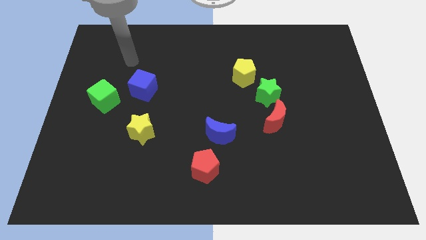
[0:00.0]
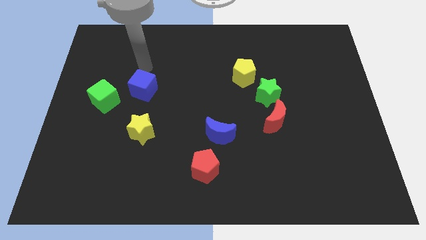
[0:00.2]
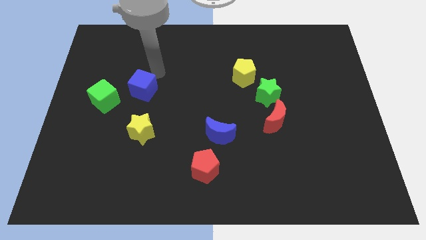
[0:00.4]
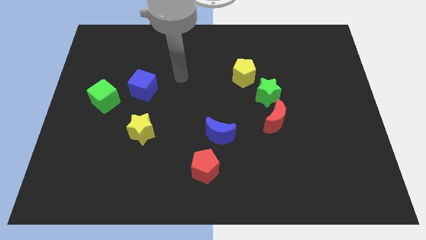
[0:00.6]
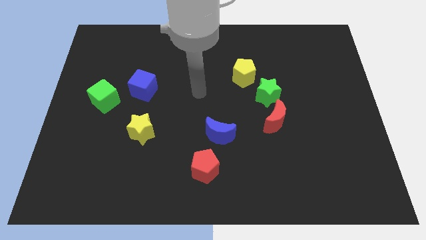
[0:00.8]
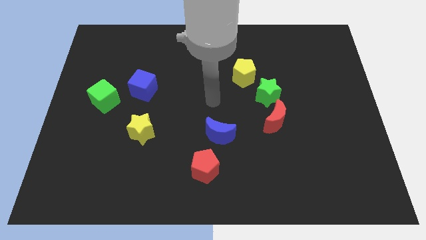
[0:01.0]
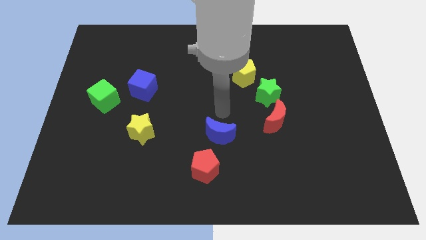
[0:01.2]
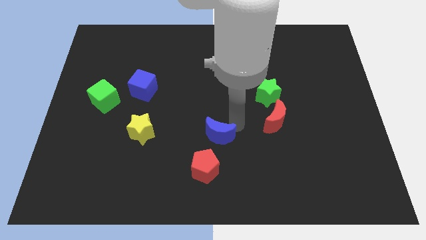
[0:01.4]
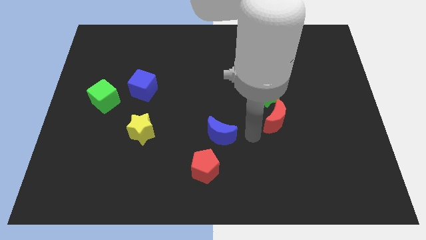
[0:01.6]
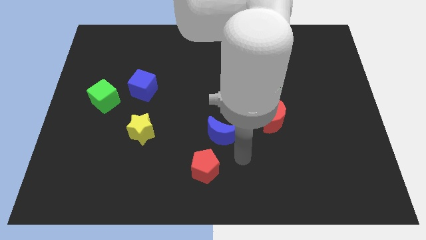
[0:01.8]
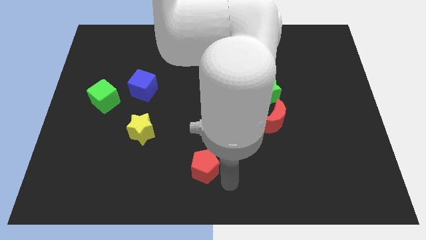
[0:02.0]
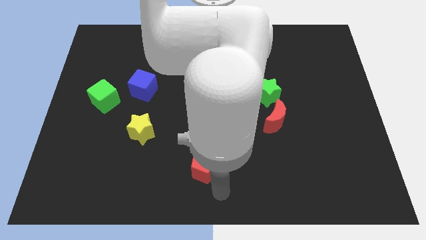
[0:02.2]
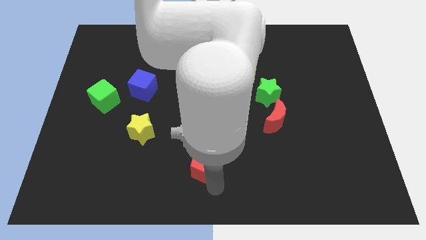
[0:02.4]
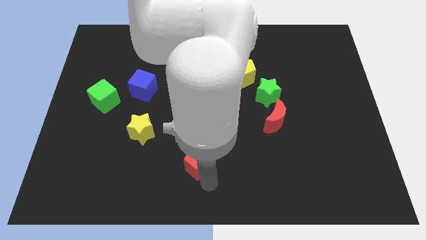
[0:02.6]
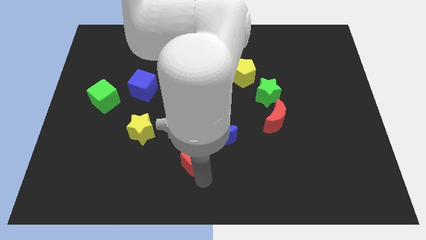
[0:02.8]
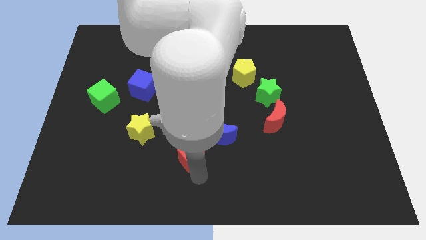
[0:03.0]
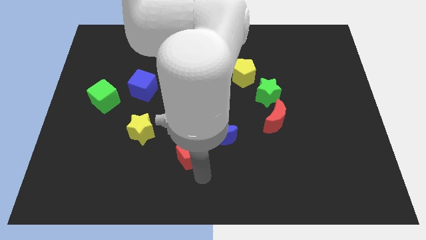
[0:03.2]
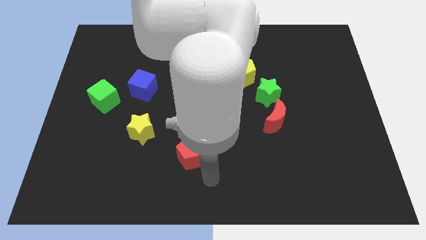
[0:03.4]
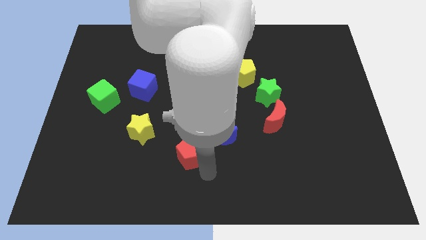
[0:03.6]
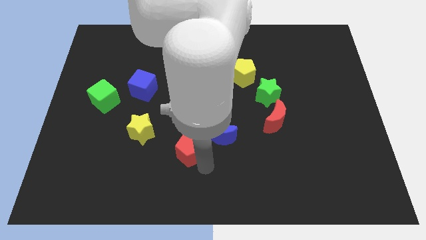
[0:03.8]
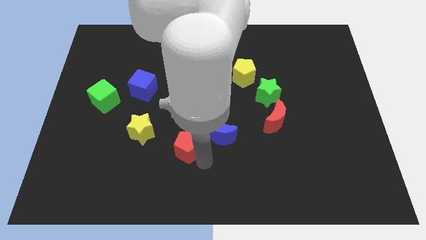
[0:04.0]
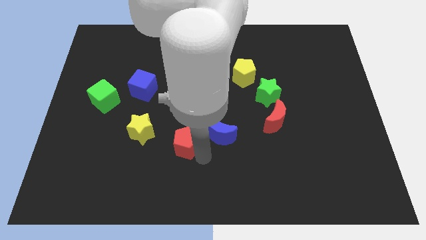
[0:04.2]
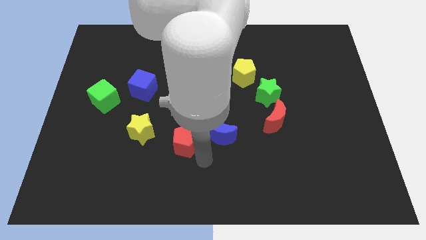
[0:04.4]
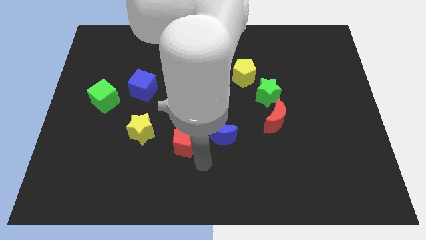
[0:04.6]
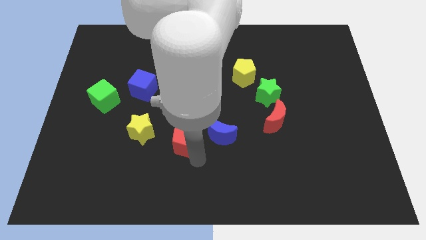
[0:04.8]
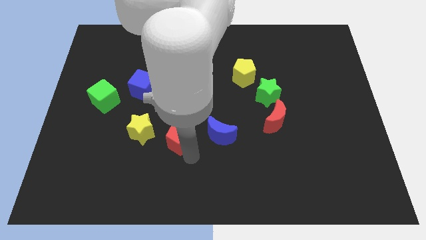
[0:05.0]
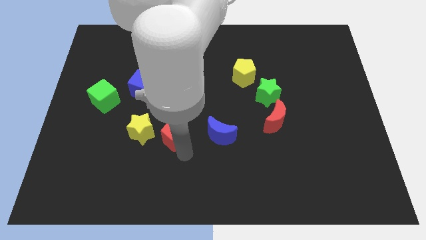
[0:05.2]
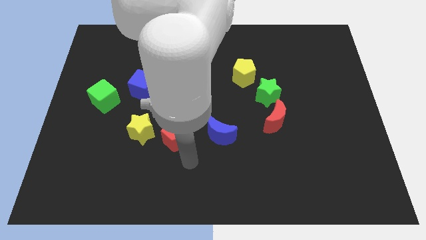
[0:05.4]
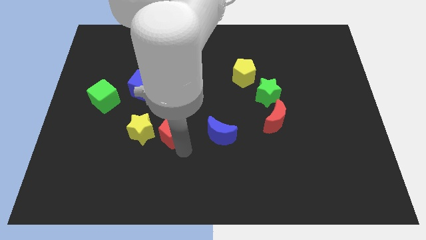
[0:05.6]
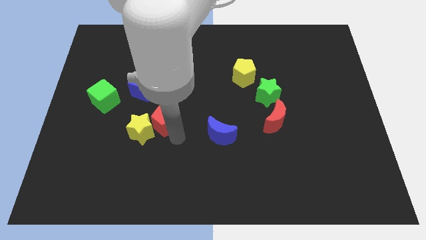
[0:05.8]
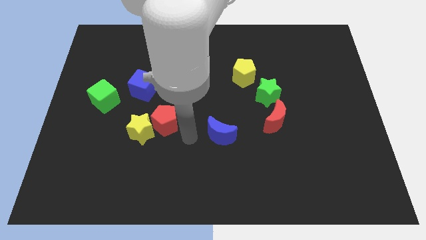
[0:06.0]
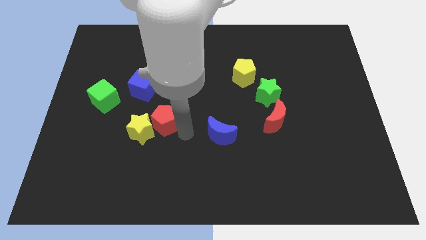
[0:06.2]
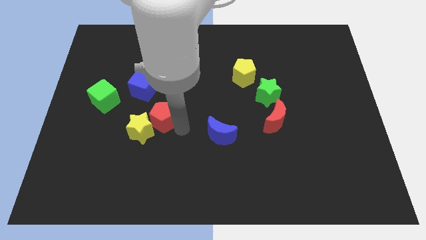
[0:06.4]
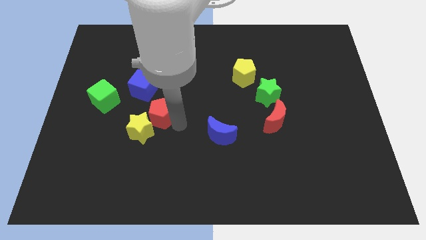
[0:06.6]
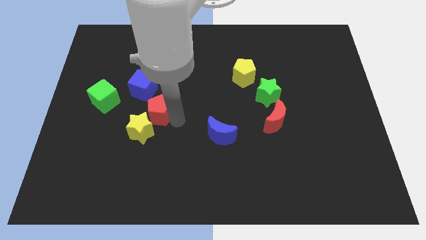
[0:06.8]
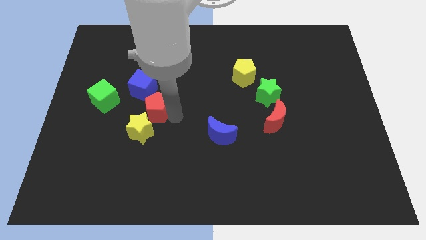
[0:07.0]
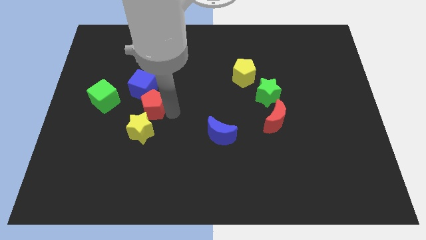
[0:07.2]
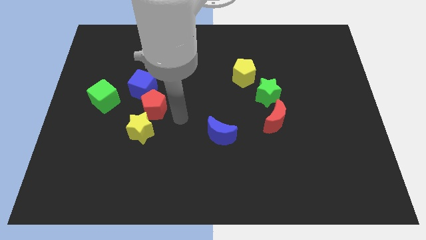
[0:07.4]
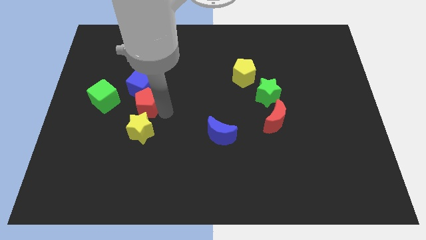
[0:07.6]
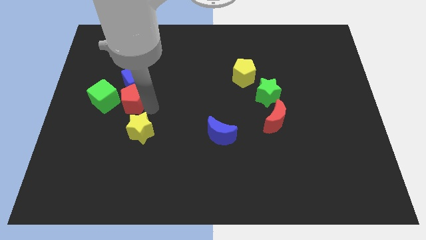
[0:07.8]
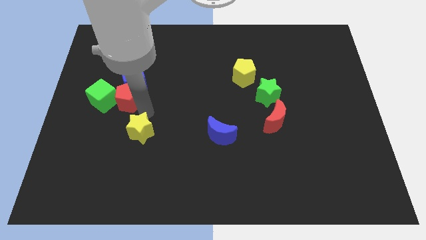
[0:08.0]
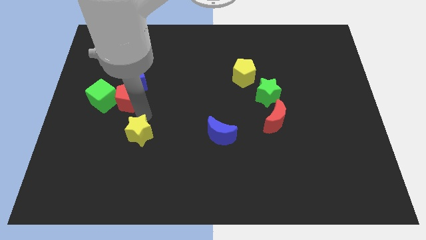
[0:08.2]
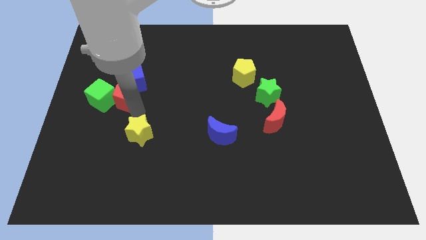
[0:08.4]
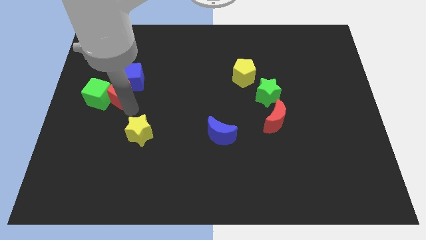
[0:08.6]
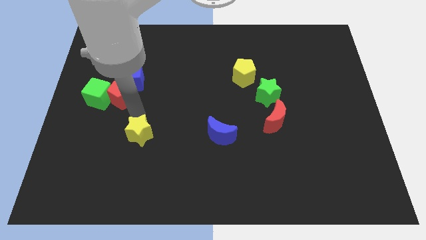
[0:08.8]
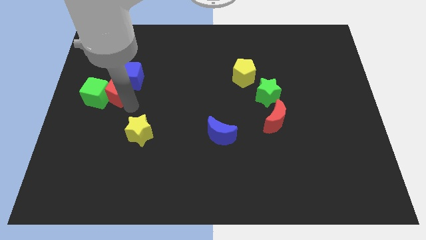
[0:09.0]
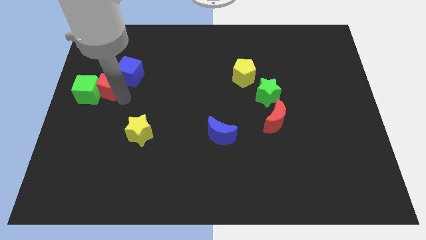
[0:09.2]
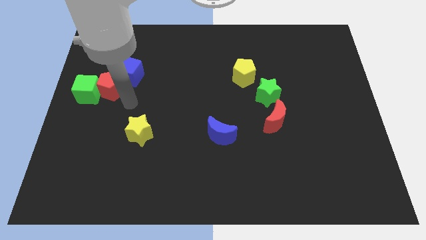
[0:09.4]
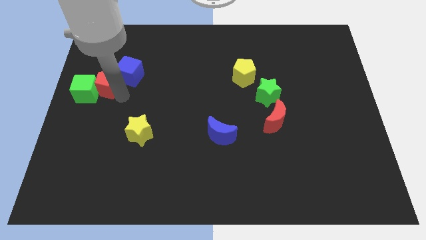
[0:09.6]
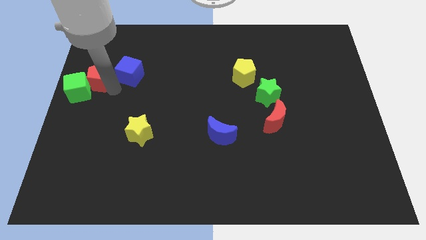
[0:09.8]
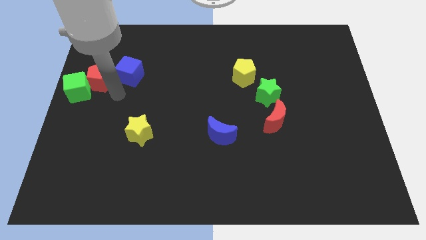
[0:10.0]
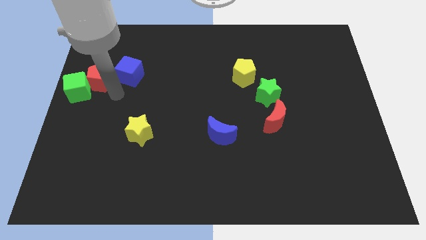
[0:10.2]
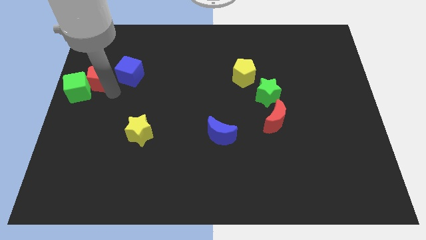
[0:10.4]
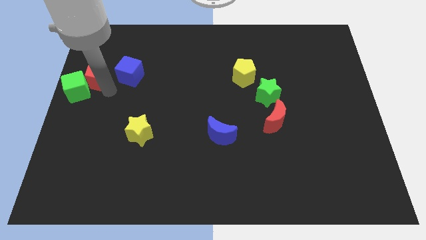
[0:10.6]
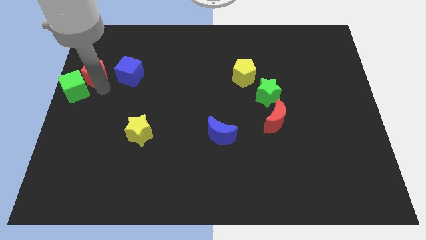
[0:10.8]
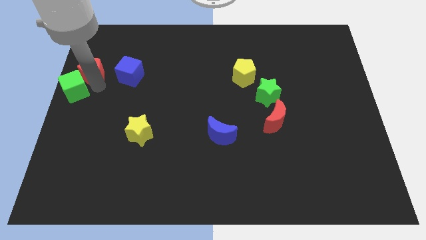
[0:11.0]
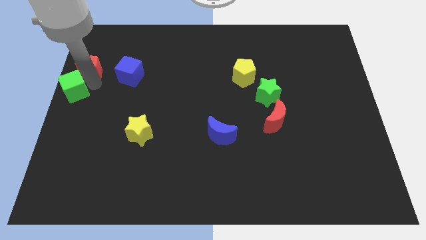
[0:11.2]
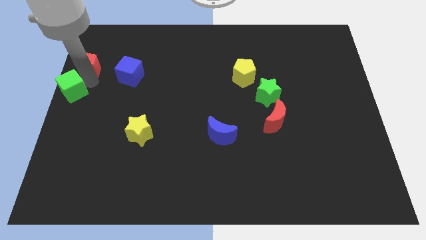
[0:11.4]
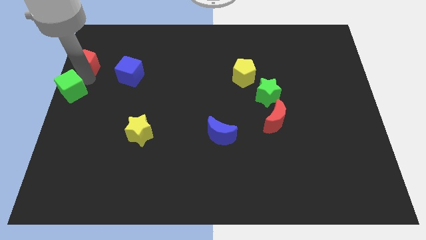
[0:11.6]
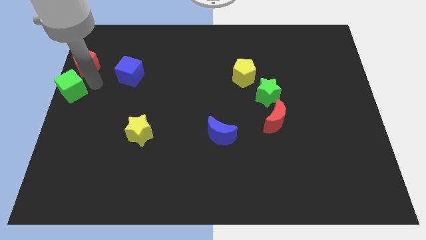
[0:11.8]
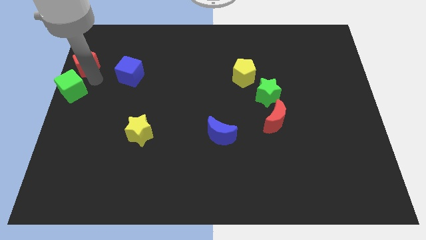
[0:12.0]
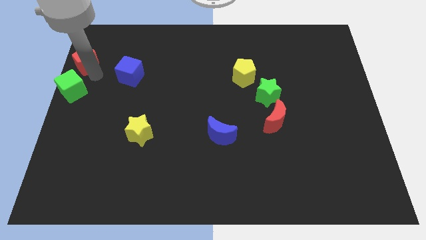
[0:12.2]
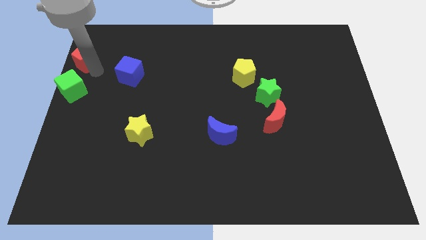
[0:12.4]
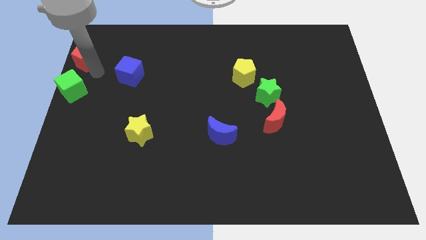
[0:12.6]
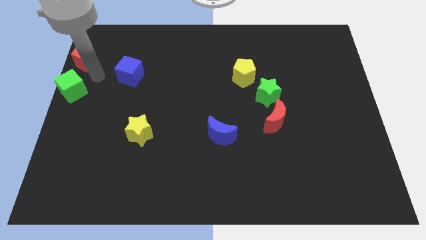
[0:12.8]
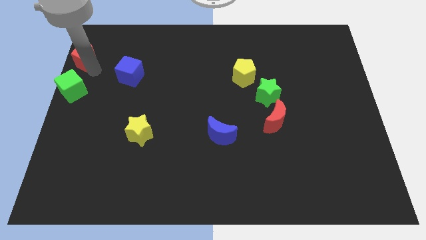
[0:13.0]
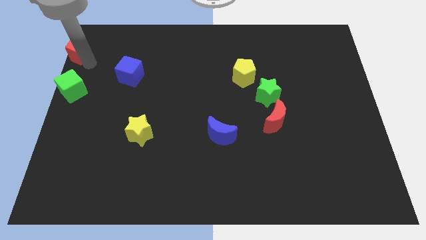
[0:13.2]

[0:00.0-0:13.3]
put the red pentagon to the top left corner
